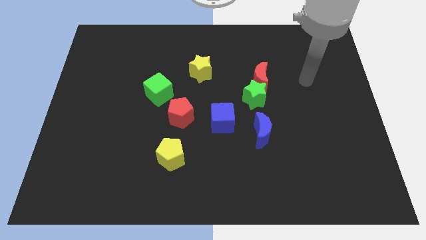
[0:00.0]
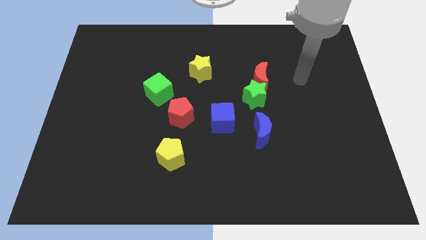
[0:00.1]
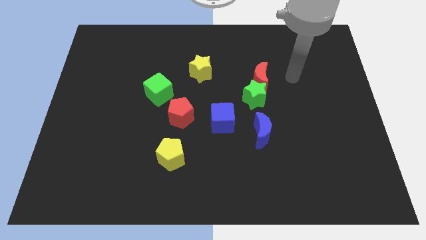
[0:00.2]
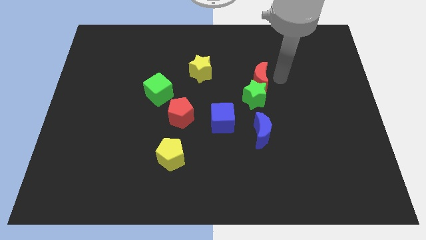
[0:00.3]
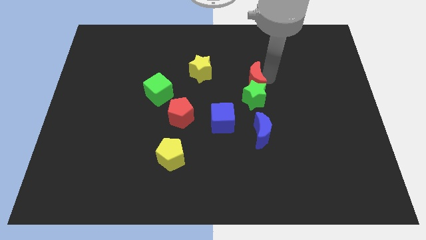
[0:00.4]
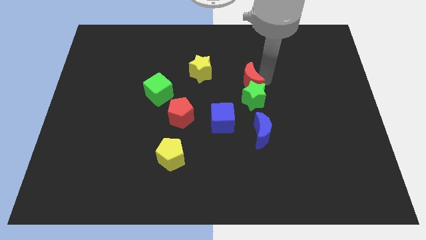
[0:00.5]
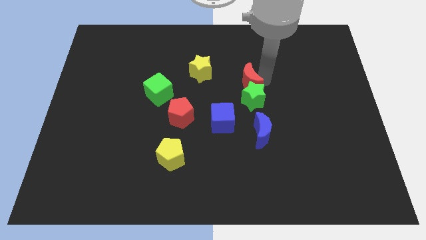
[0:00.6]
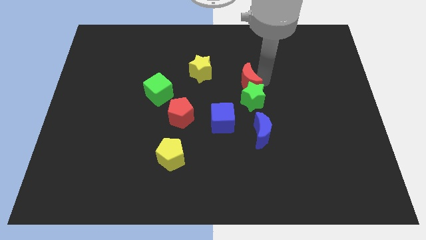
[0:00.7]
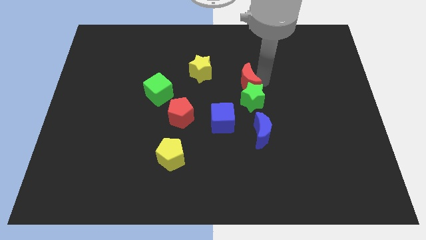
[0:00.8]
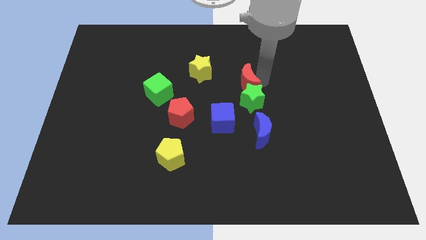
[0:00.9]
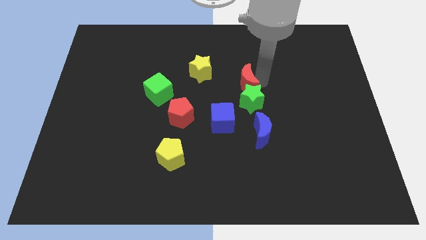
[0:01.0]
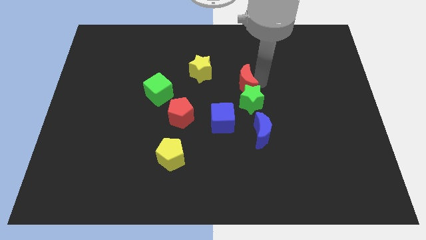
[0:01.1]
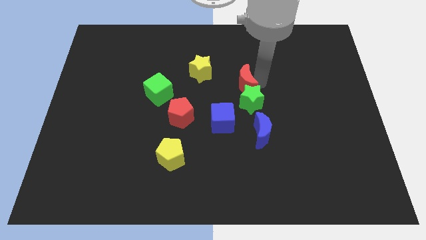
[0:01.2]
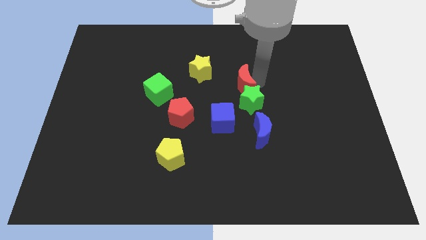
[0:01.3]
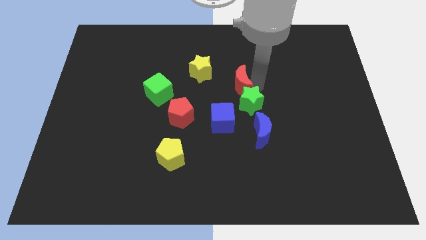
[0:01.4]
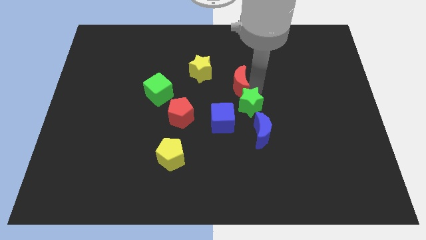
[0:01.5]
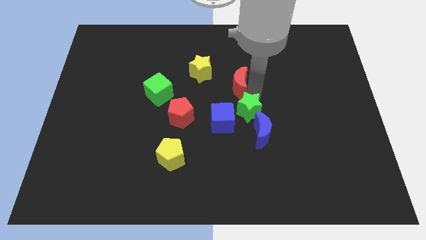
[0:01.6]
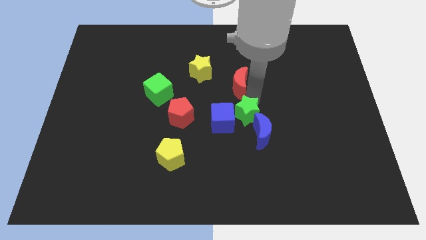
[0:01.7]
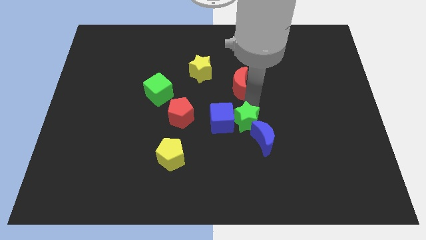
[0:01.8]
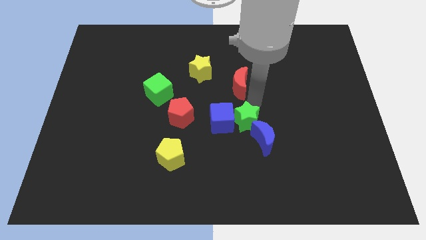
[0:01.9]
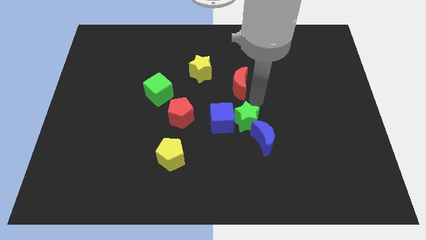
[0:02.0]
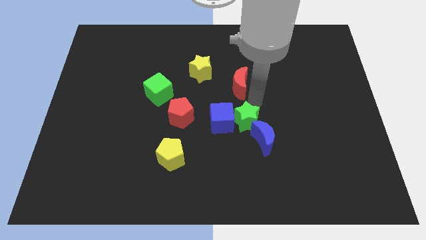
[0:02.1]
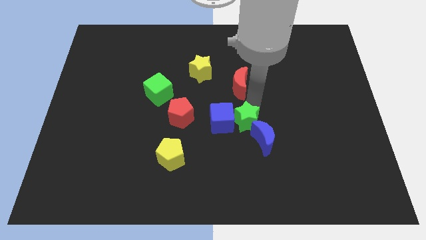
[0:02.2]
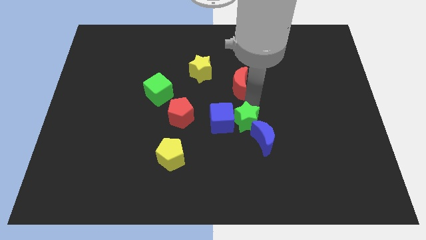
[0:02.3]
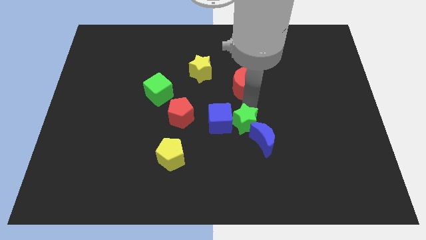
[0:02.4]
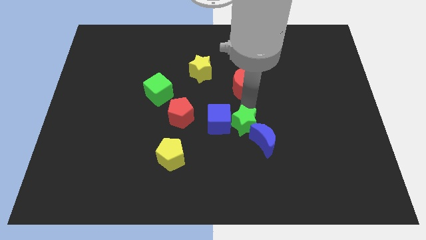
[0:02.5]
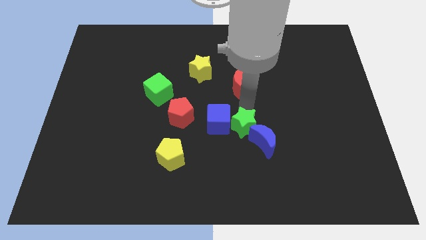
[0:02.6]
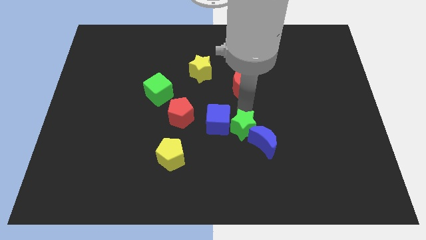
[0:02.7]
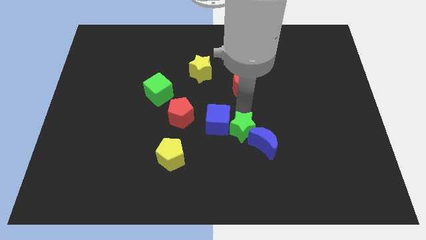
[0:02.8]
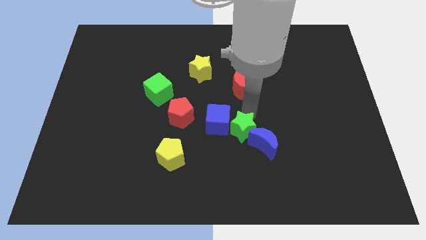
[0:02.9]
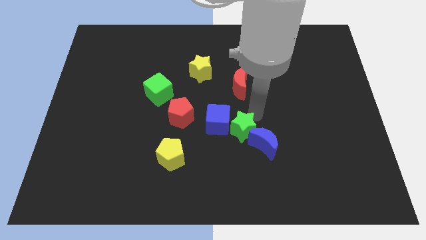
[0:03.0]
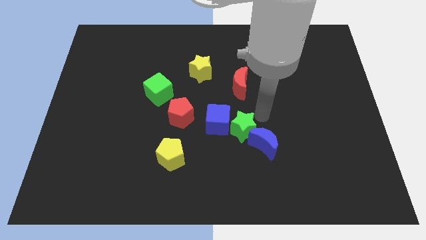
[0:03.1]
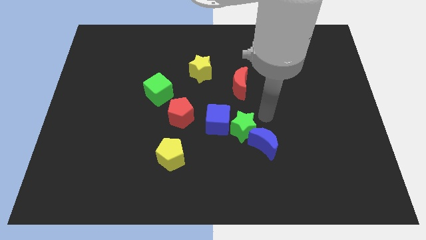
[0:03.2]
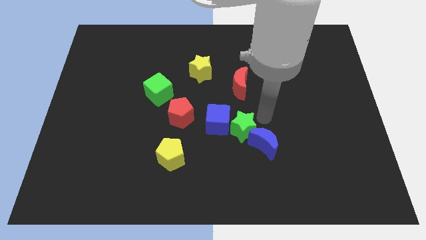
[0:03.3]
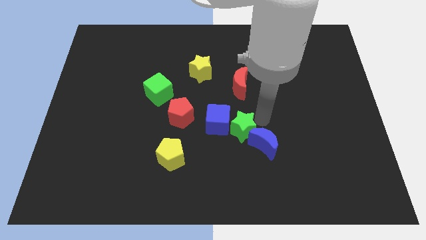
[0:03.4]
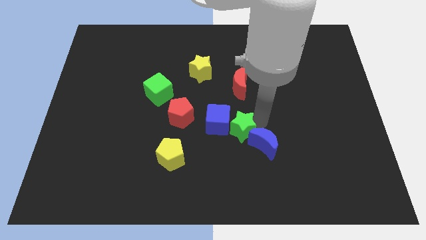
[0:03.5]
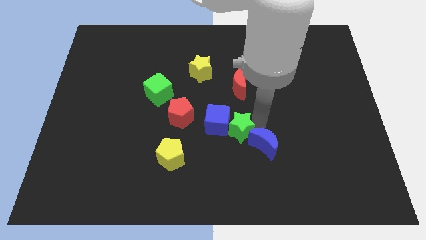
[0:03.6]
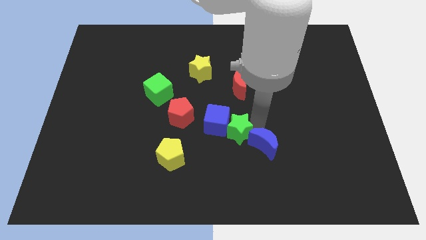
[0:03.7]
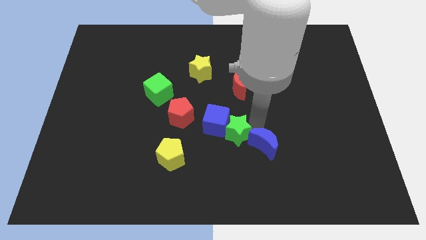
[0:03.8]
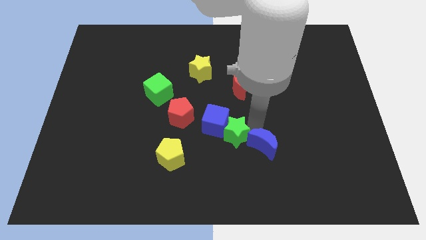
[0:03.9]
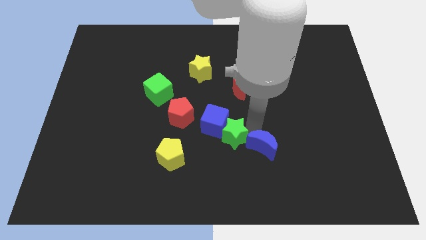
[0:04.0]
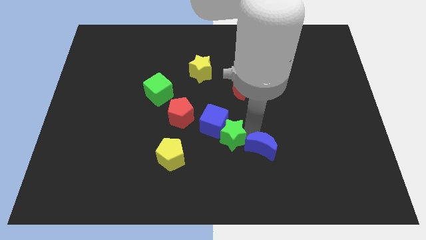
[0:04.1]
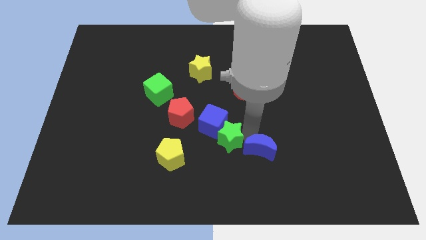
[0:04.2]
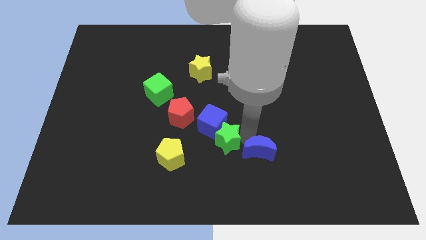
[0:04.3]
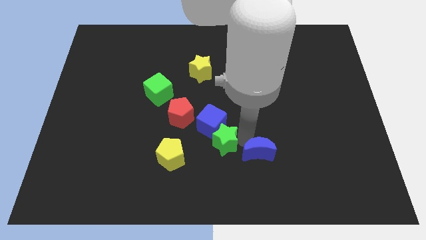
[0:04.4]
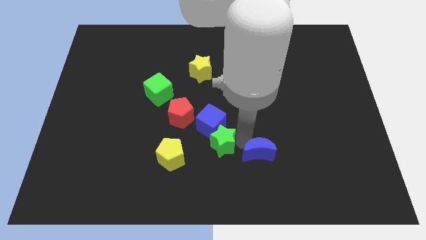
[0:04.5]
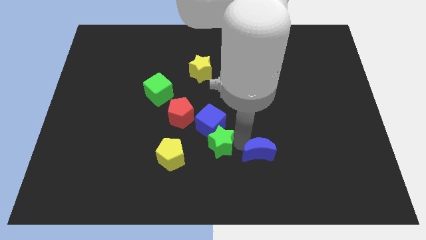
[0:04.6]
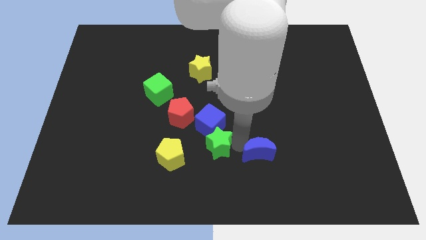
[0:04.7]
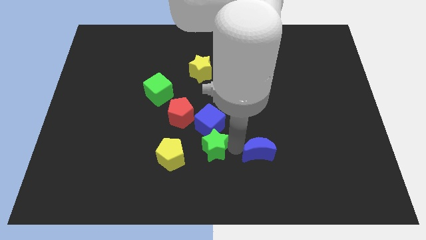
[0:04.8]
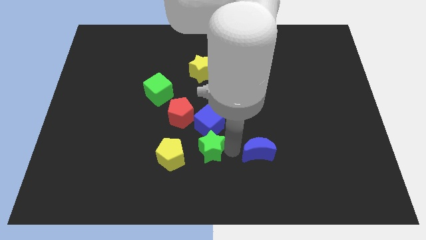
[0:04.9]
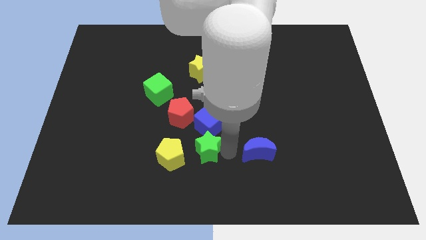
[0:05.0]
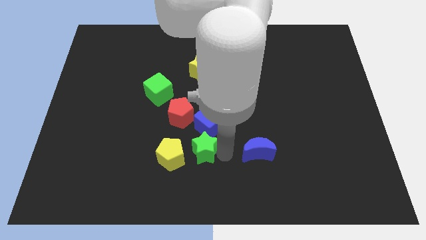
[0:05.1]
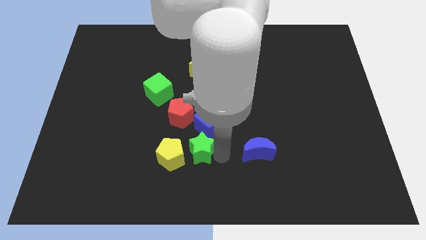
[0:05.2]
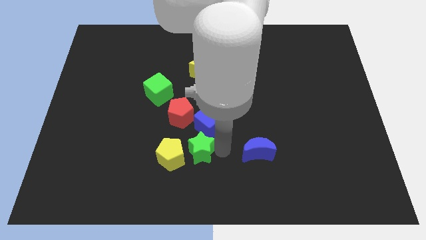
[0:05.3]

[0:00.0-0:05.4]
push the green star to the bottom of the red pentagon

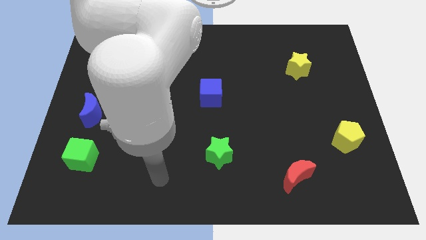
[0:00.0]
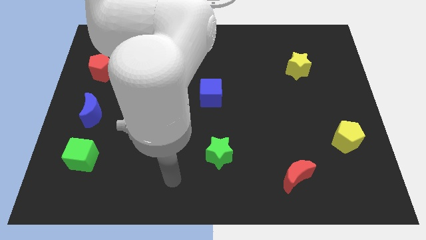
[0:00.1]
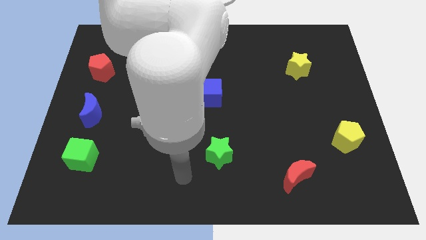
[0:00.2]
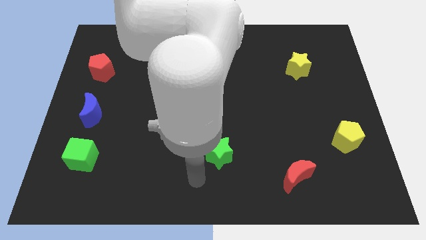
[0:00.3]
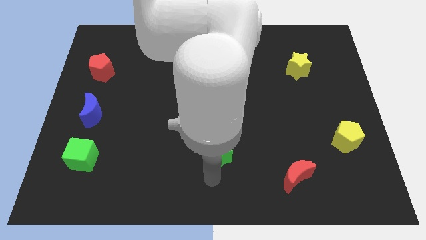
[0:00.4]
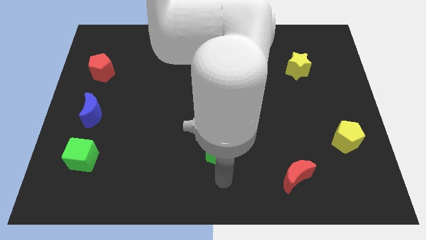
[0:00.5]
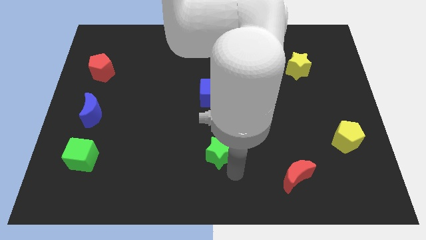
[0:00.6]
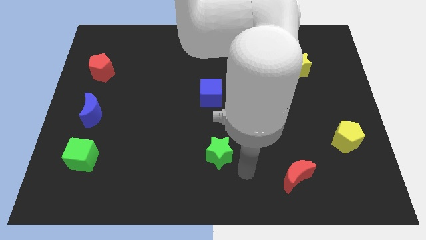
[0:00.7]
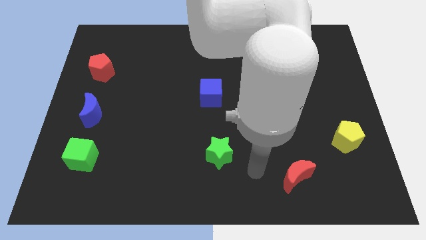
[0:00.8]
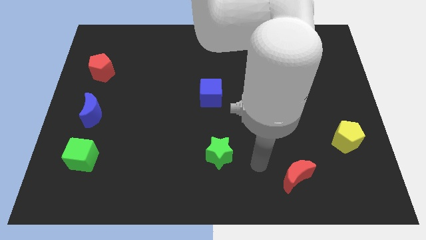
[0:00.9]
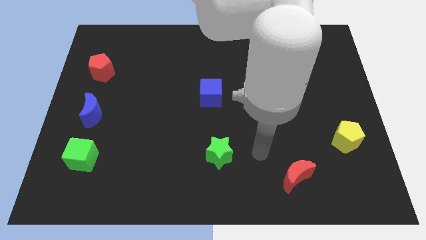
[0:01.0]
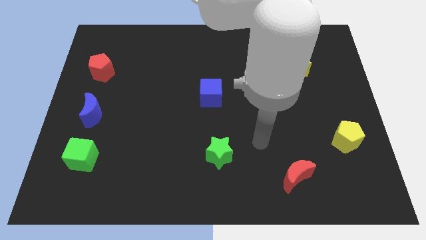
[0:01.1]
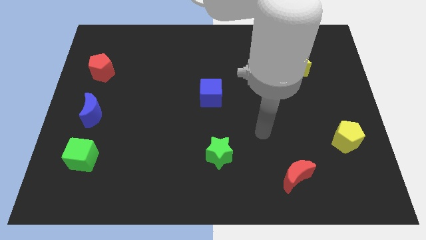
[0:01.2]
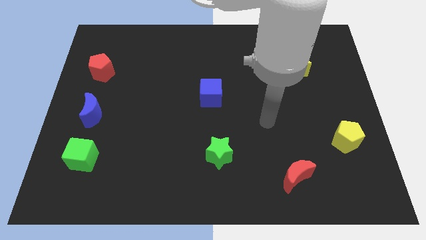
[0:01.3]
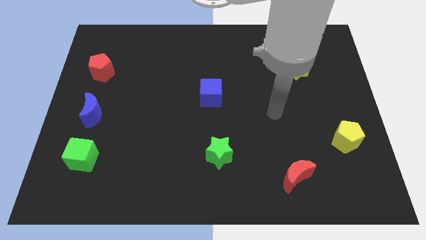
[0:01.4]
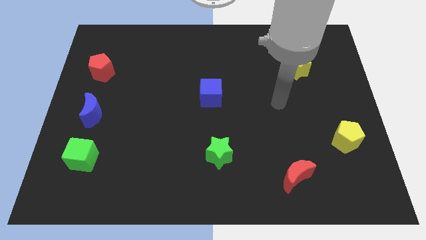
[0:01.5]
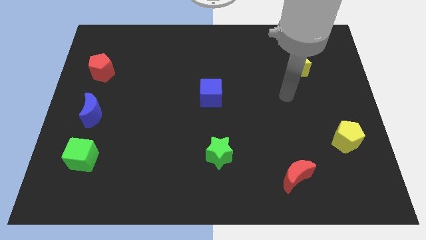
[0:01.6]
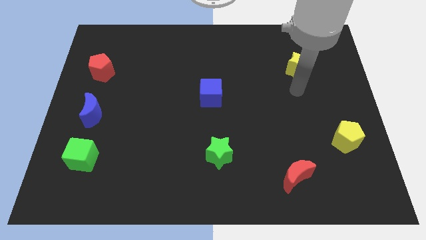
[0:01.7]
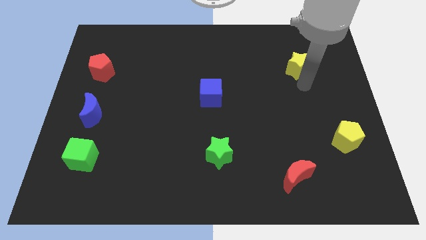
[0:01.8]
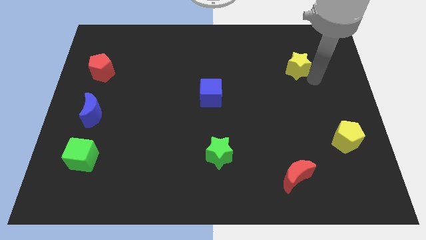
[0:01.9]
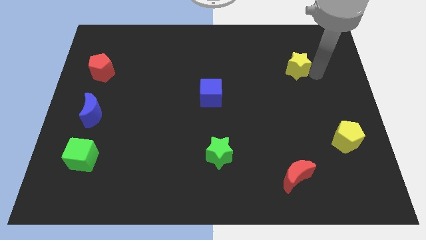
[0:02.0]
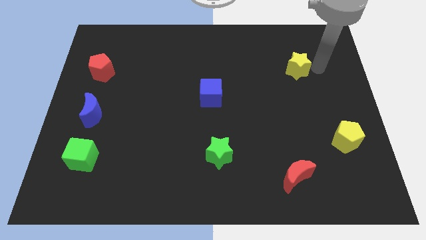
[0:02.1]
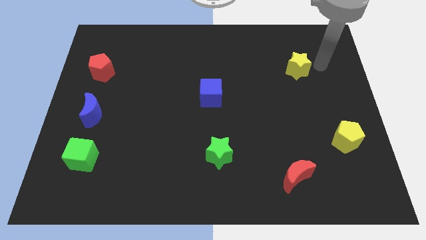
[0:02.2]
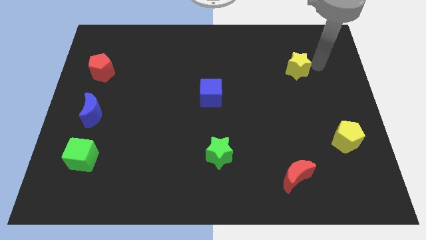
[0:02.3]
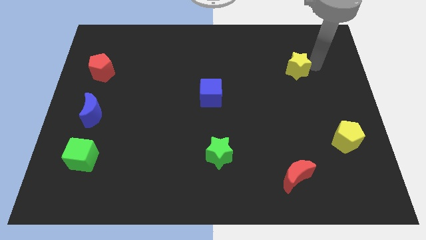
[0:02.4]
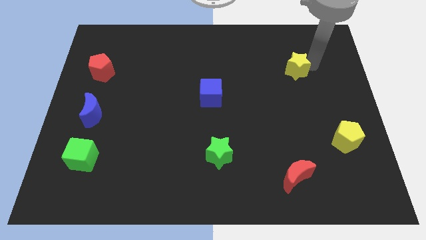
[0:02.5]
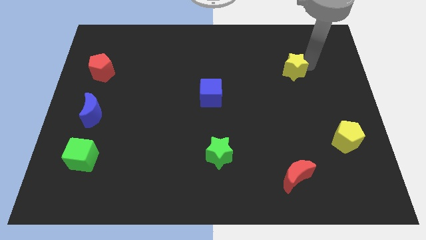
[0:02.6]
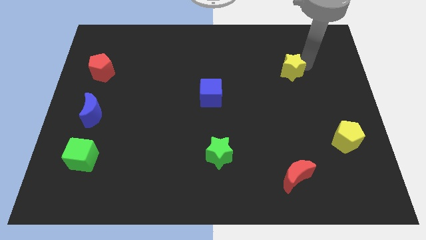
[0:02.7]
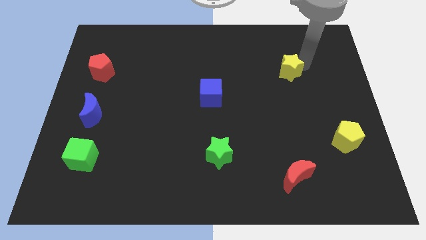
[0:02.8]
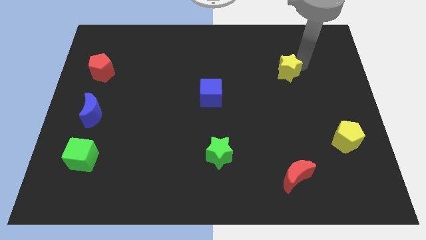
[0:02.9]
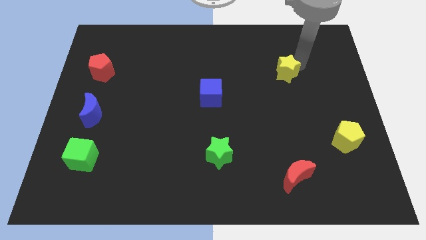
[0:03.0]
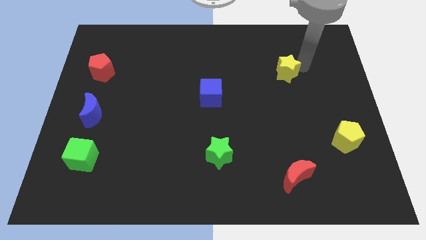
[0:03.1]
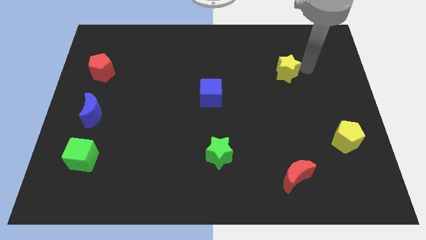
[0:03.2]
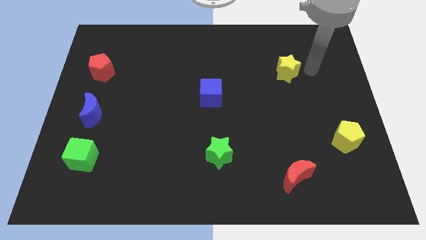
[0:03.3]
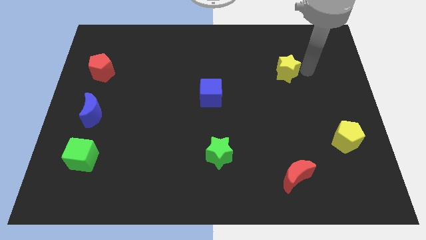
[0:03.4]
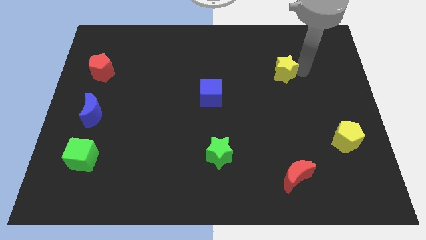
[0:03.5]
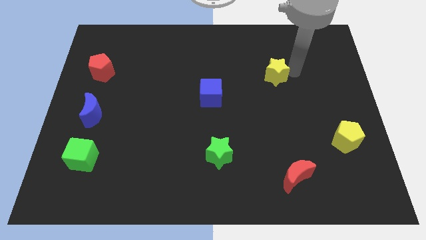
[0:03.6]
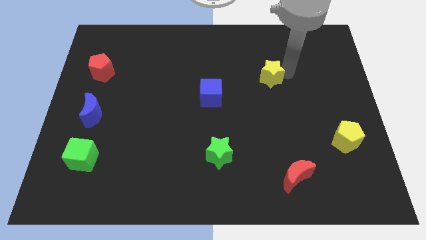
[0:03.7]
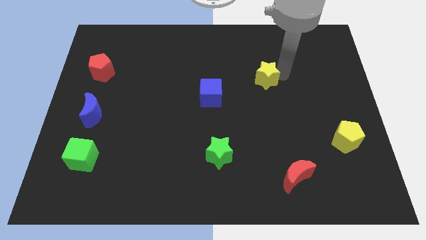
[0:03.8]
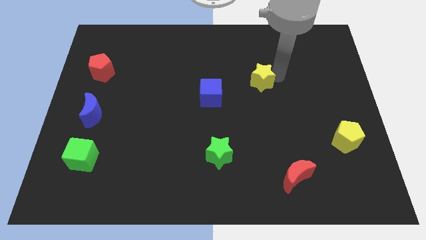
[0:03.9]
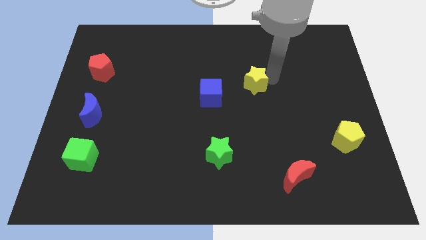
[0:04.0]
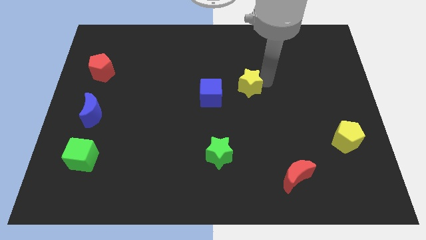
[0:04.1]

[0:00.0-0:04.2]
put the yellow star to the top right of the blue cube
